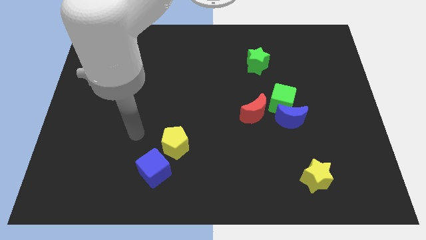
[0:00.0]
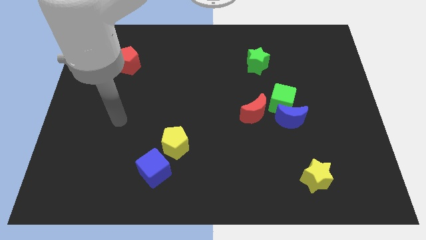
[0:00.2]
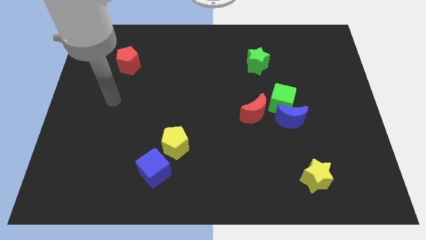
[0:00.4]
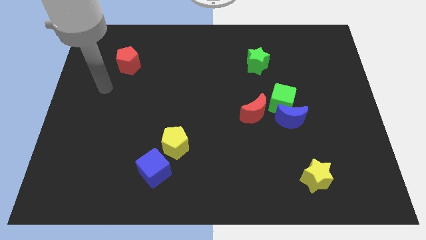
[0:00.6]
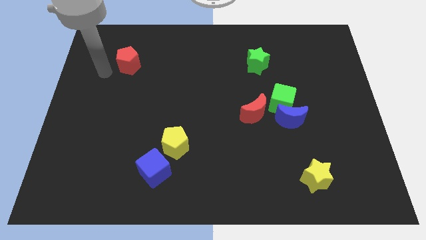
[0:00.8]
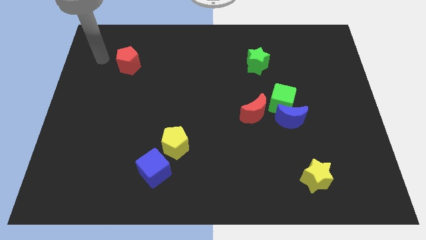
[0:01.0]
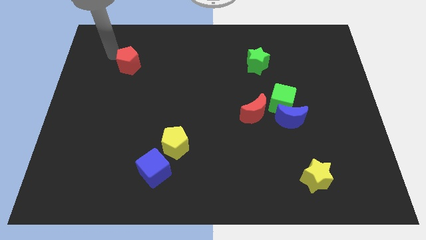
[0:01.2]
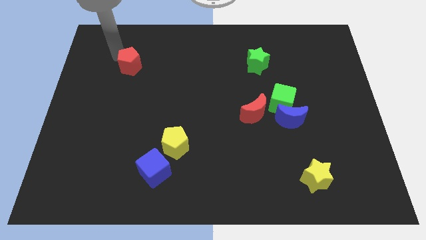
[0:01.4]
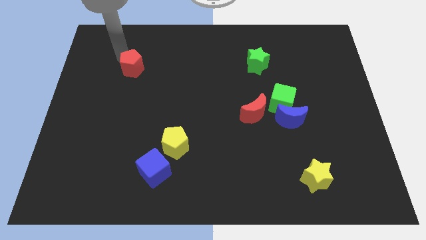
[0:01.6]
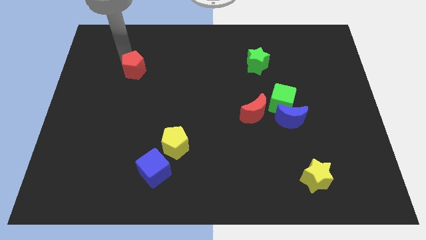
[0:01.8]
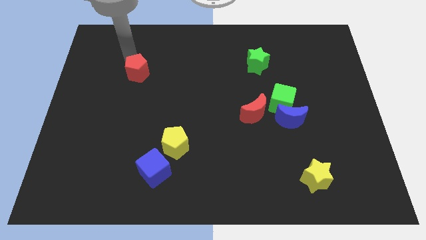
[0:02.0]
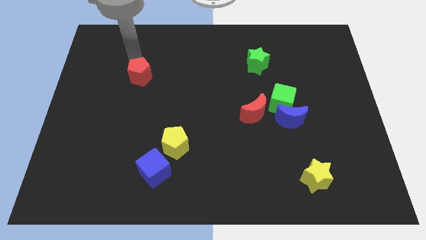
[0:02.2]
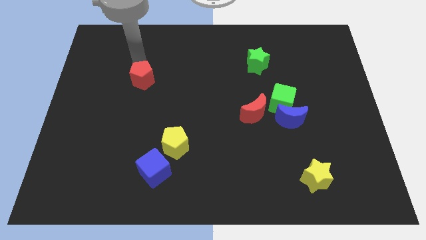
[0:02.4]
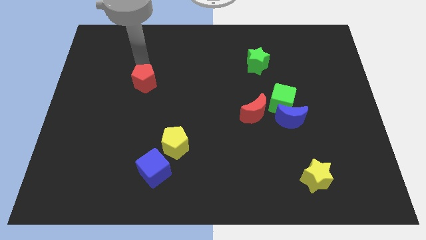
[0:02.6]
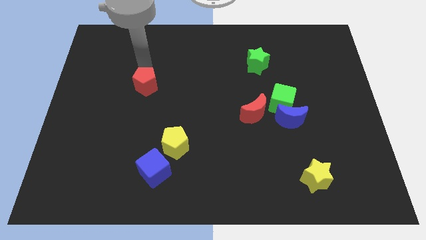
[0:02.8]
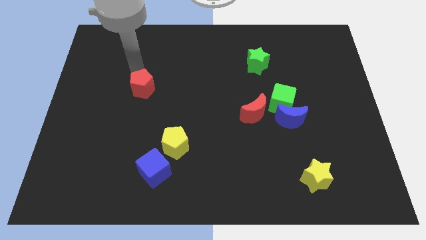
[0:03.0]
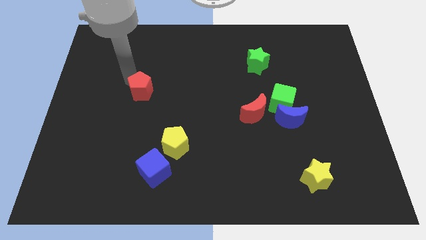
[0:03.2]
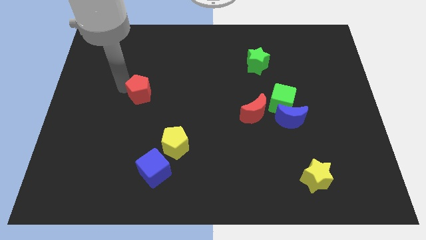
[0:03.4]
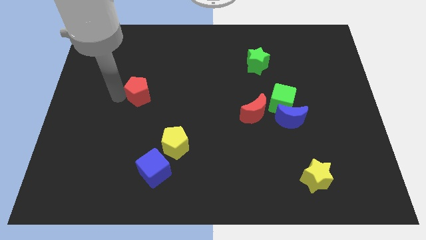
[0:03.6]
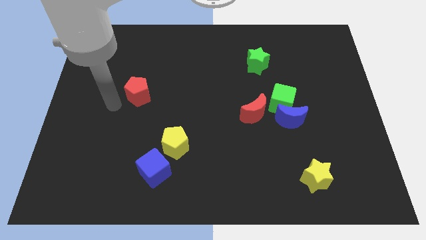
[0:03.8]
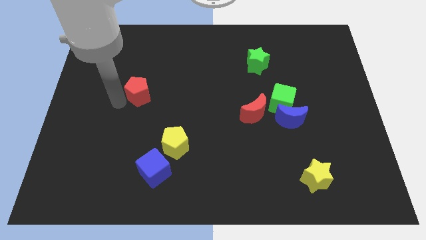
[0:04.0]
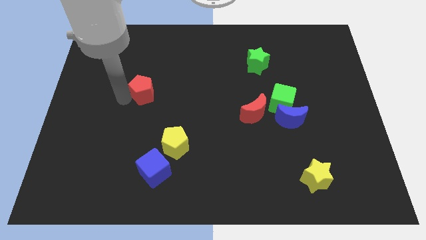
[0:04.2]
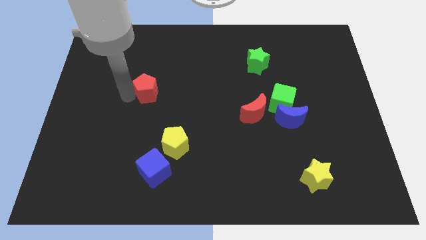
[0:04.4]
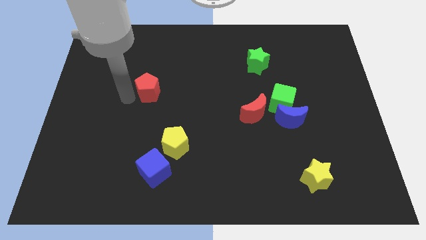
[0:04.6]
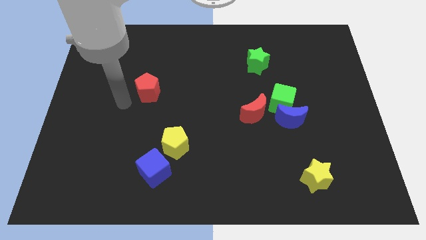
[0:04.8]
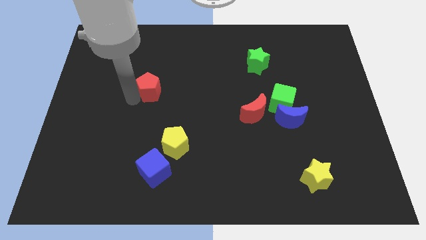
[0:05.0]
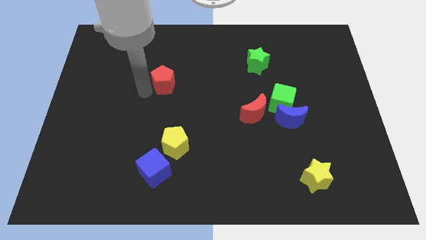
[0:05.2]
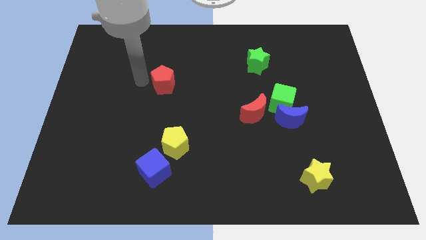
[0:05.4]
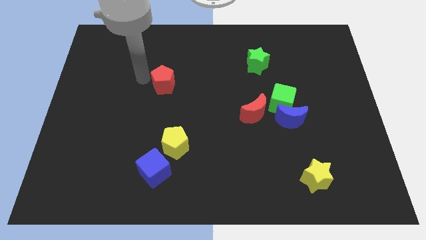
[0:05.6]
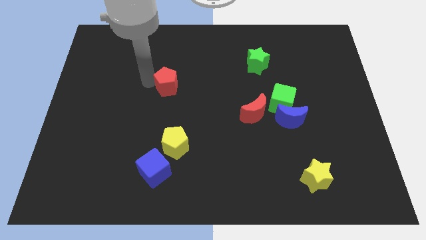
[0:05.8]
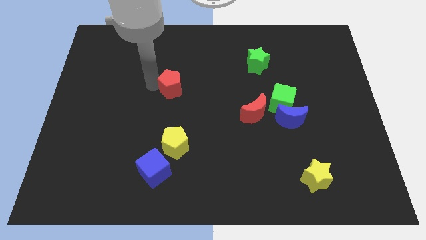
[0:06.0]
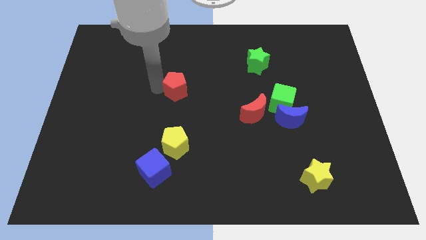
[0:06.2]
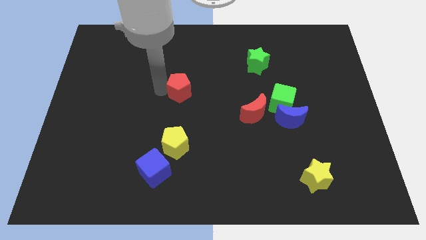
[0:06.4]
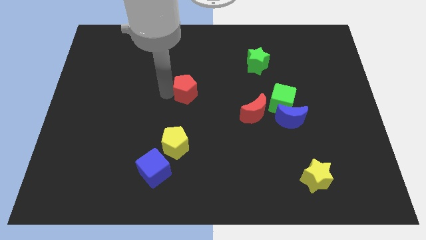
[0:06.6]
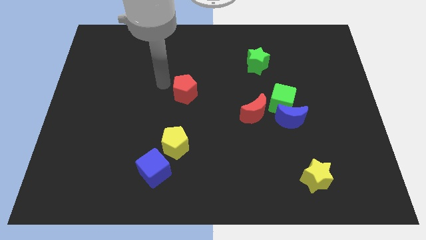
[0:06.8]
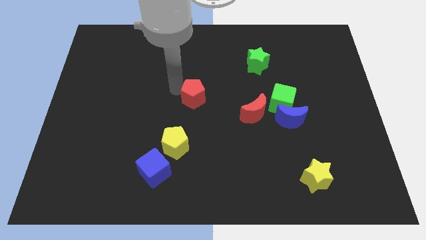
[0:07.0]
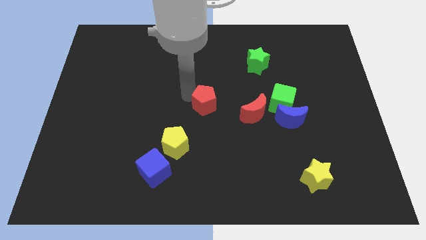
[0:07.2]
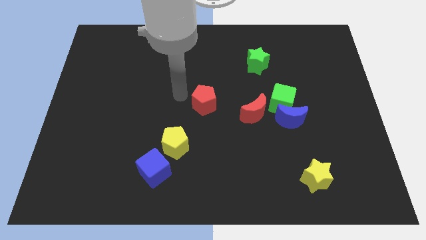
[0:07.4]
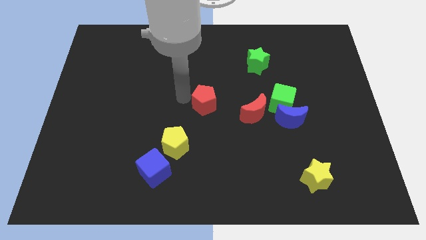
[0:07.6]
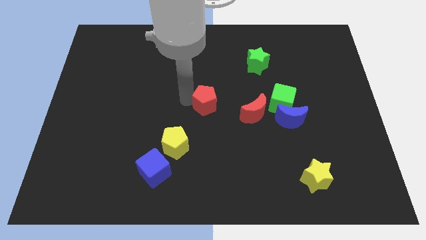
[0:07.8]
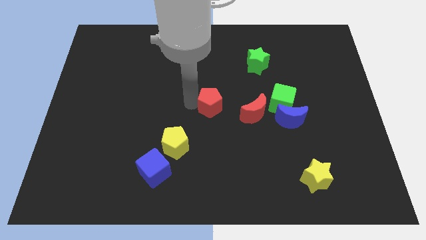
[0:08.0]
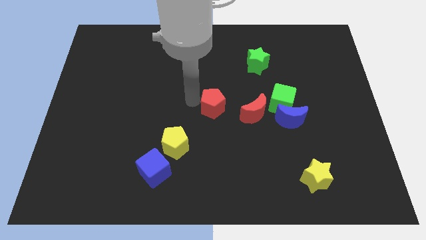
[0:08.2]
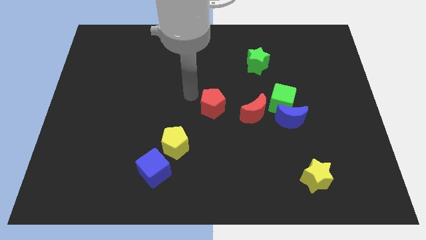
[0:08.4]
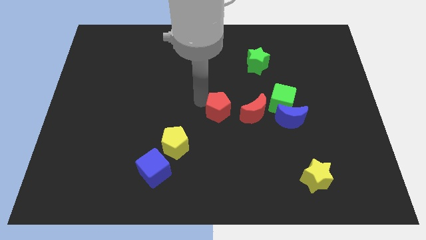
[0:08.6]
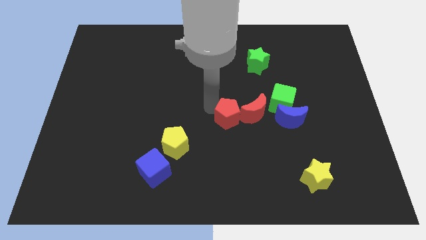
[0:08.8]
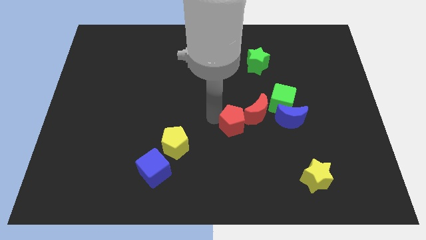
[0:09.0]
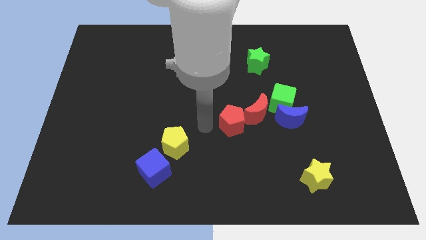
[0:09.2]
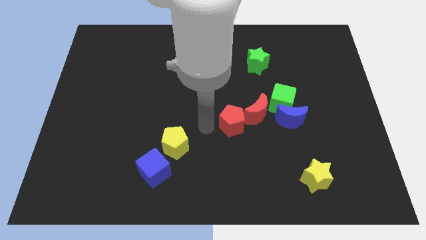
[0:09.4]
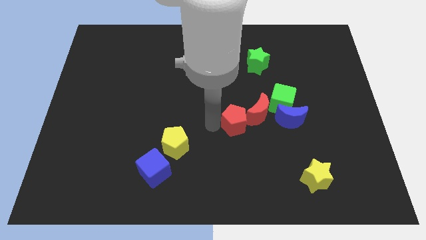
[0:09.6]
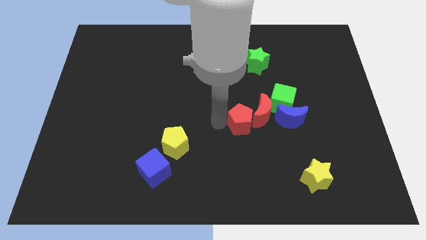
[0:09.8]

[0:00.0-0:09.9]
move the red pentagon diagonally down and to the left of the green cube

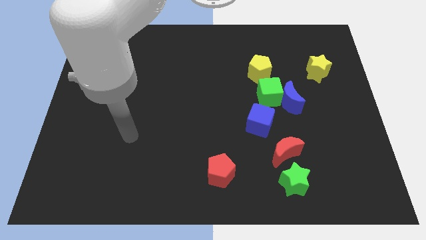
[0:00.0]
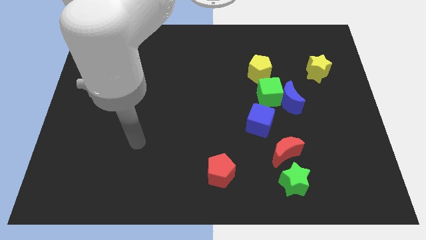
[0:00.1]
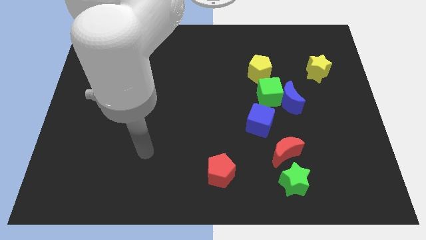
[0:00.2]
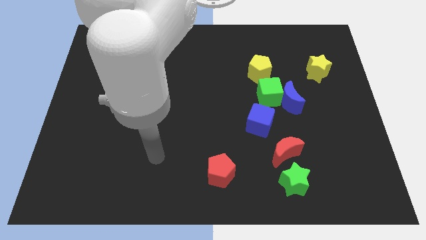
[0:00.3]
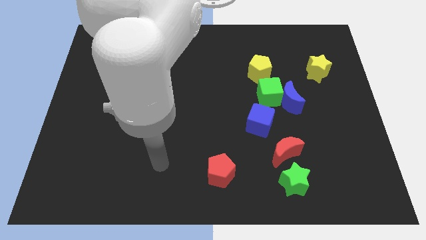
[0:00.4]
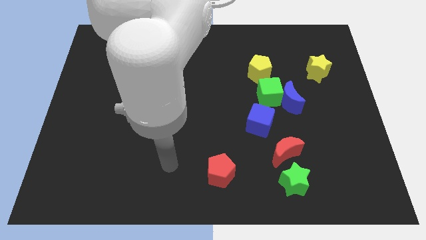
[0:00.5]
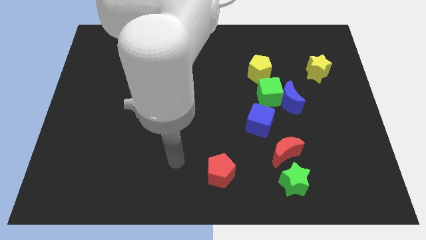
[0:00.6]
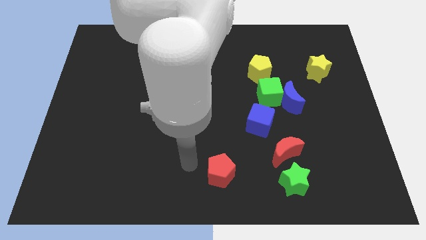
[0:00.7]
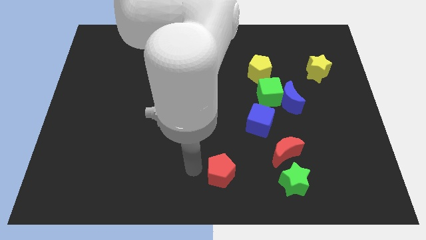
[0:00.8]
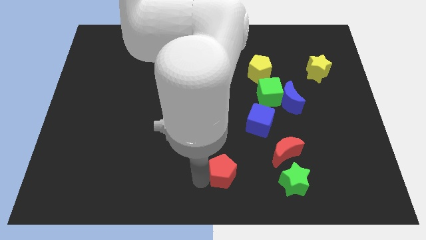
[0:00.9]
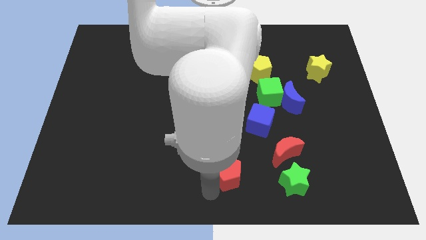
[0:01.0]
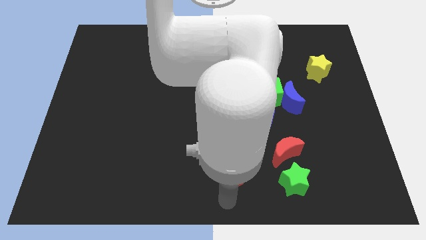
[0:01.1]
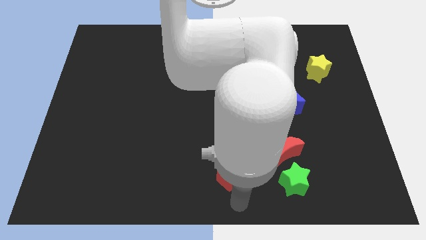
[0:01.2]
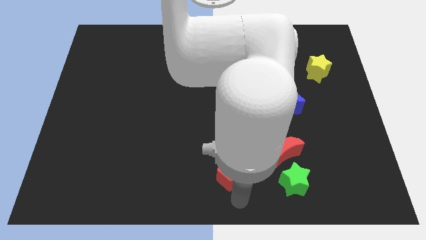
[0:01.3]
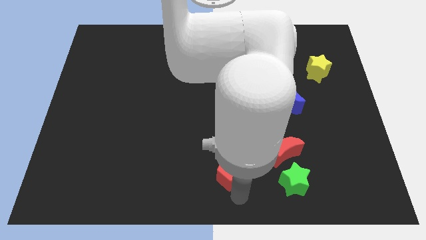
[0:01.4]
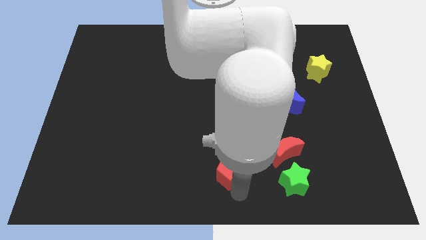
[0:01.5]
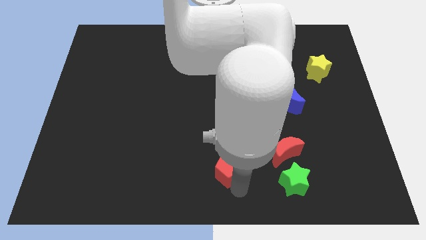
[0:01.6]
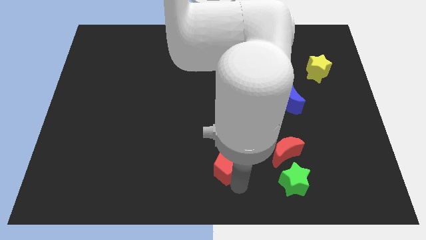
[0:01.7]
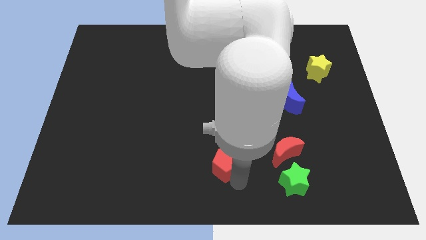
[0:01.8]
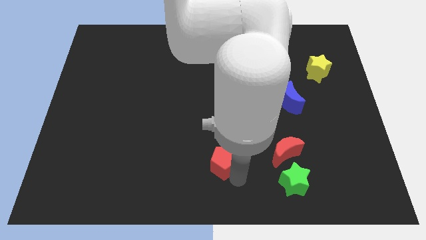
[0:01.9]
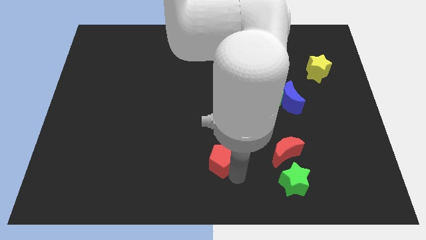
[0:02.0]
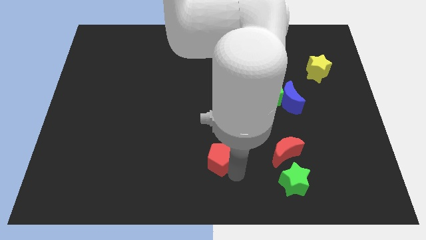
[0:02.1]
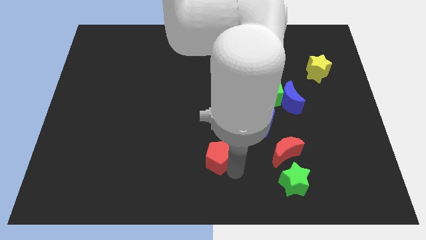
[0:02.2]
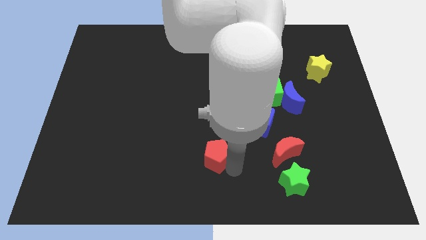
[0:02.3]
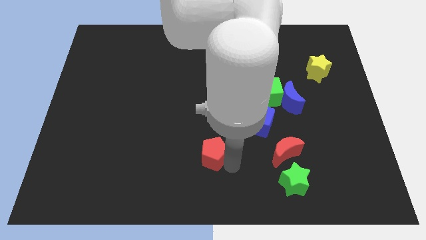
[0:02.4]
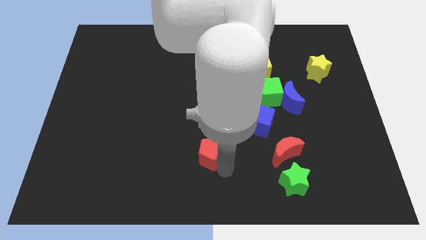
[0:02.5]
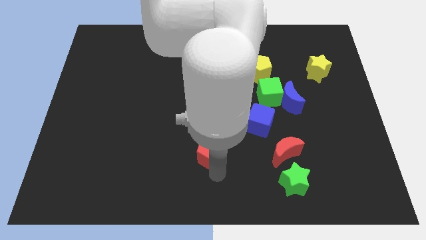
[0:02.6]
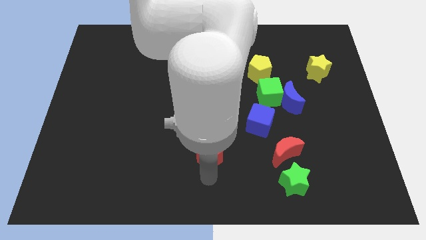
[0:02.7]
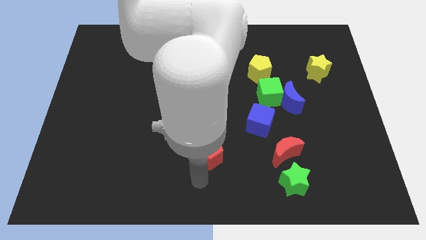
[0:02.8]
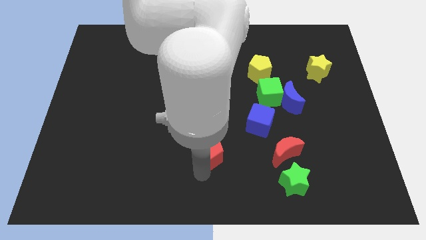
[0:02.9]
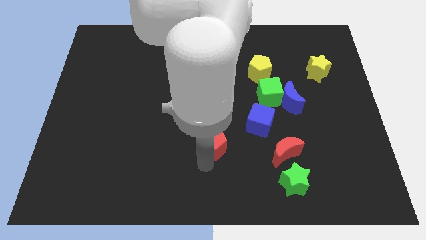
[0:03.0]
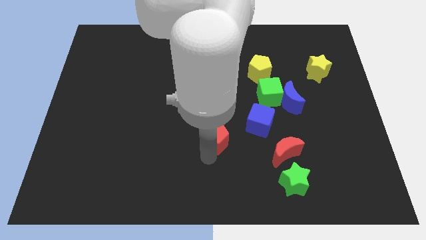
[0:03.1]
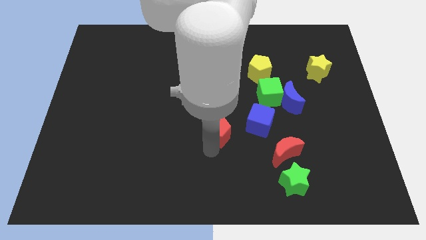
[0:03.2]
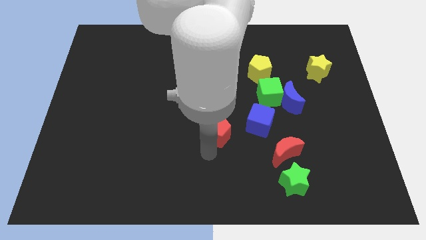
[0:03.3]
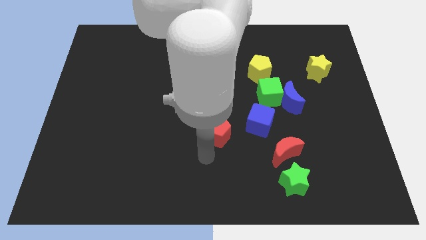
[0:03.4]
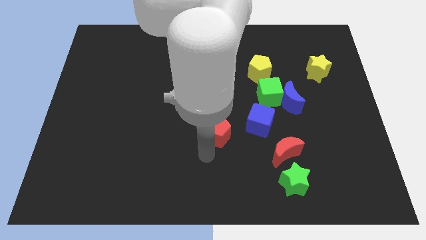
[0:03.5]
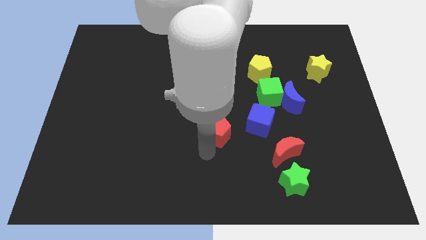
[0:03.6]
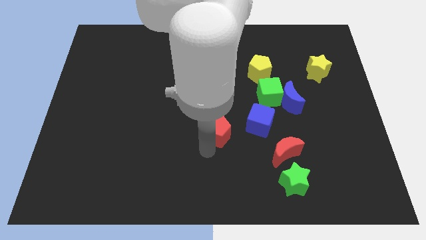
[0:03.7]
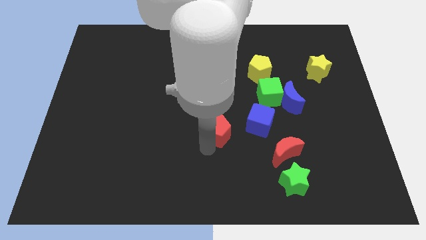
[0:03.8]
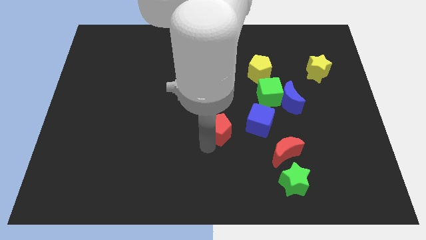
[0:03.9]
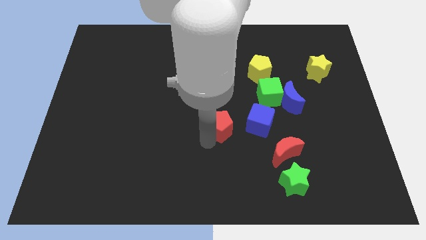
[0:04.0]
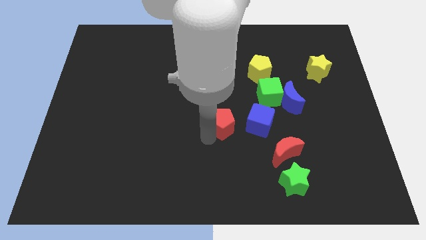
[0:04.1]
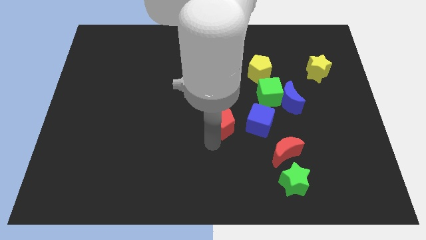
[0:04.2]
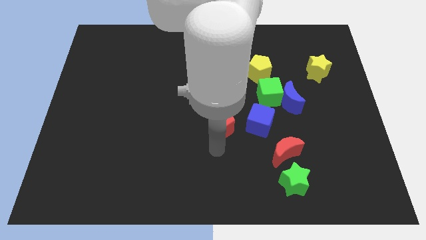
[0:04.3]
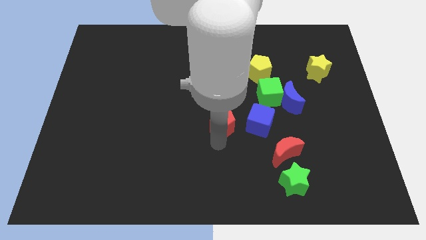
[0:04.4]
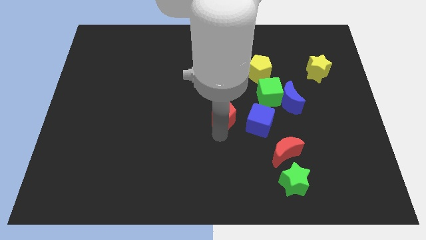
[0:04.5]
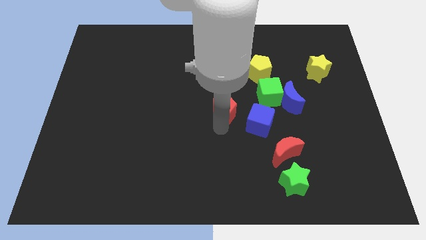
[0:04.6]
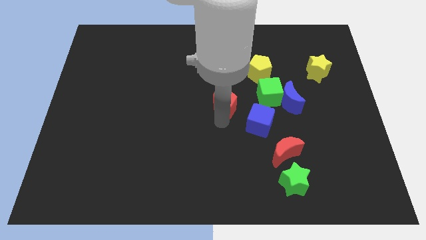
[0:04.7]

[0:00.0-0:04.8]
put the red pentagon to the left of the green cube
